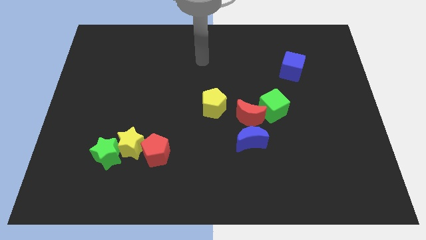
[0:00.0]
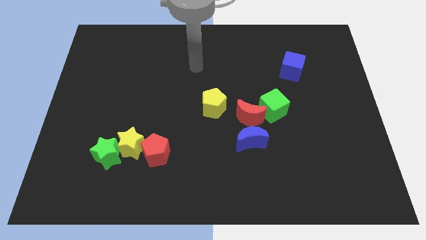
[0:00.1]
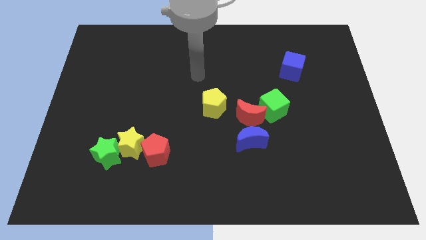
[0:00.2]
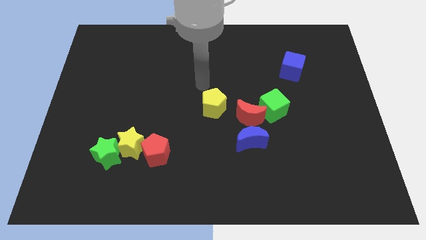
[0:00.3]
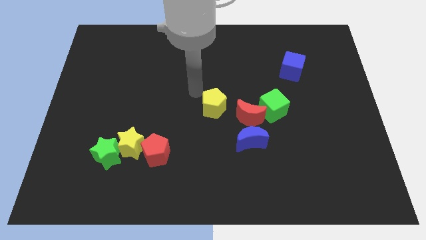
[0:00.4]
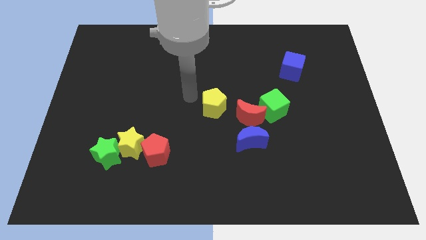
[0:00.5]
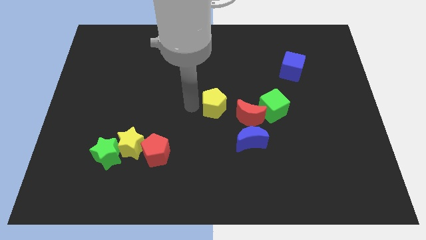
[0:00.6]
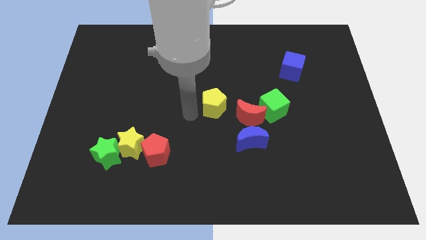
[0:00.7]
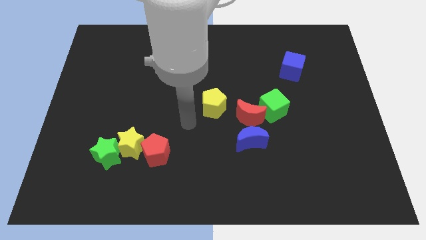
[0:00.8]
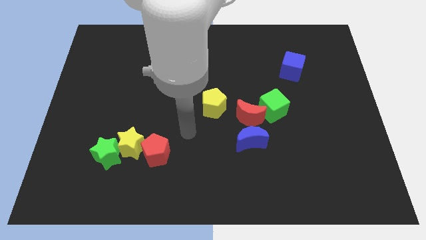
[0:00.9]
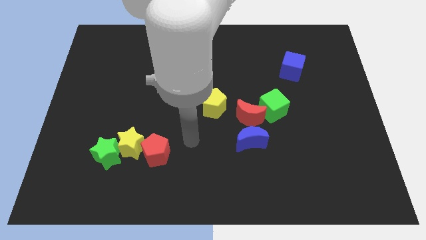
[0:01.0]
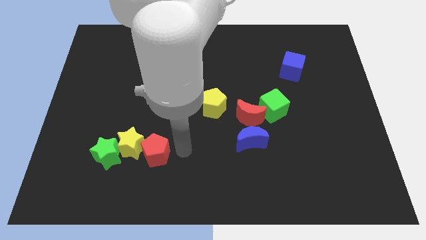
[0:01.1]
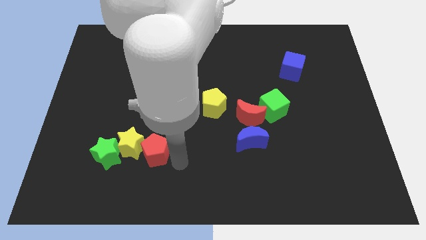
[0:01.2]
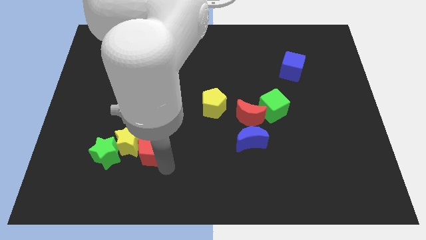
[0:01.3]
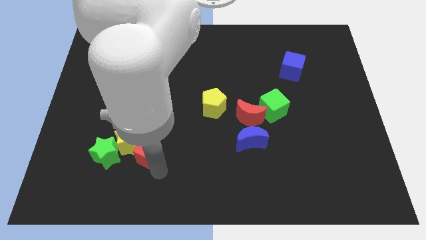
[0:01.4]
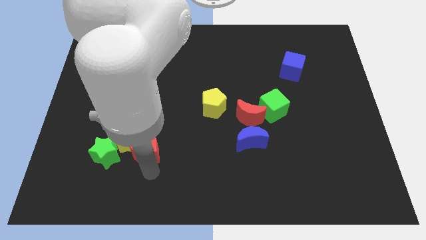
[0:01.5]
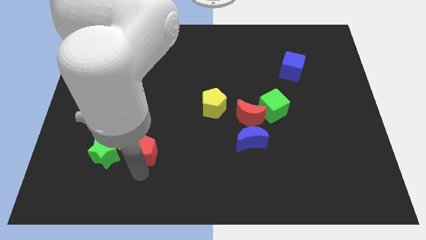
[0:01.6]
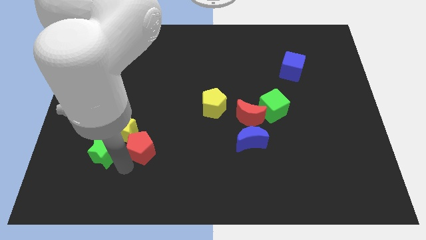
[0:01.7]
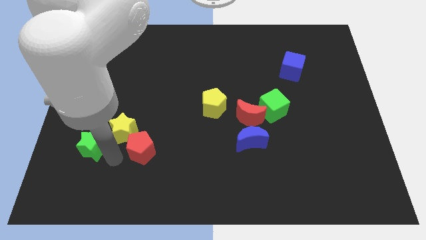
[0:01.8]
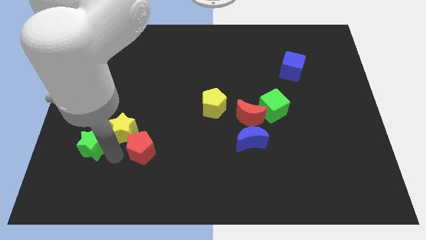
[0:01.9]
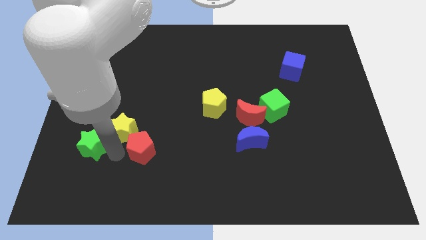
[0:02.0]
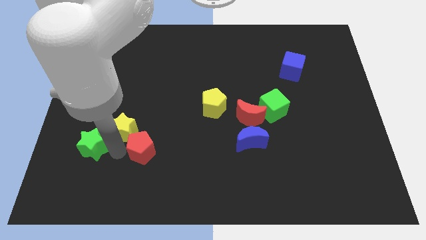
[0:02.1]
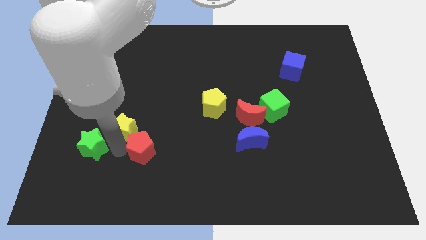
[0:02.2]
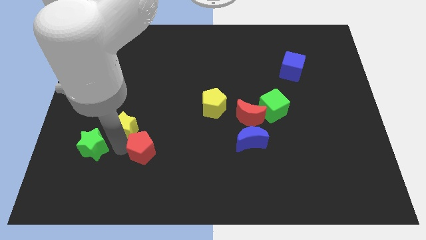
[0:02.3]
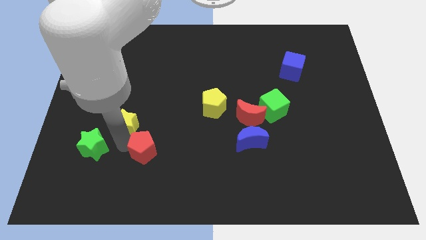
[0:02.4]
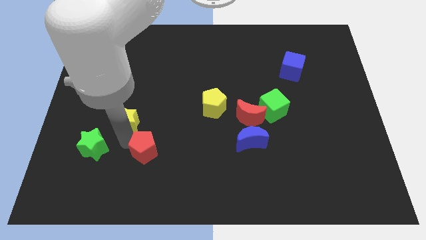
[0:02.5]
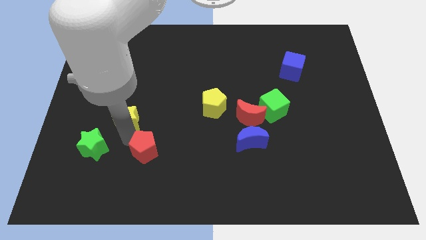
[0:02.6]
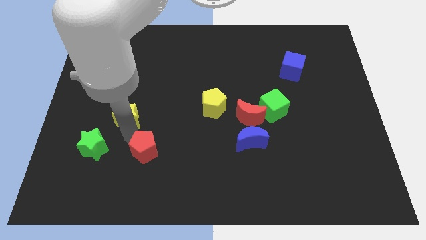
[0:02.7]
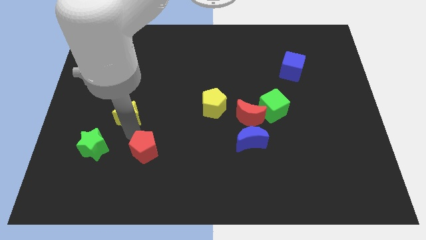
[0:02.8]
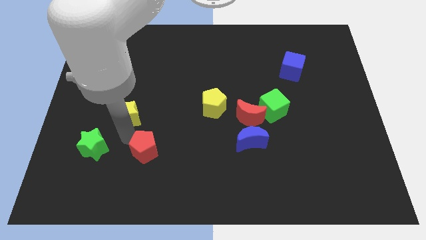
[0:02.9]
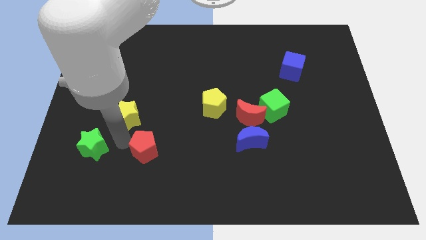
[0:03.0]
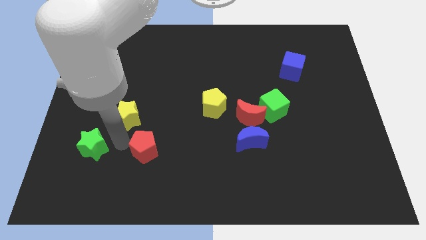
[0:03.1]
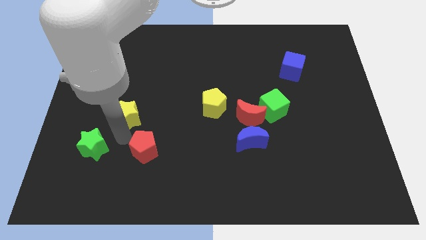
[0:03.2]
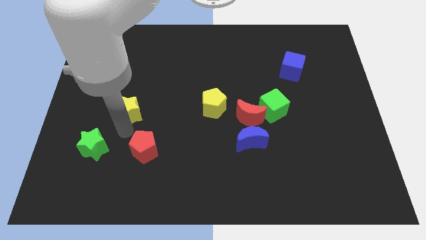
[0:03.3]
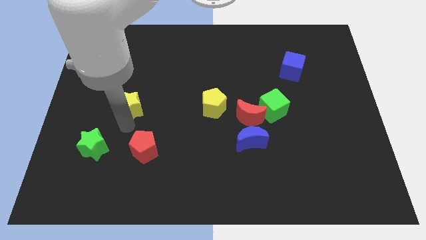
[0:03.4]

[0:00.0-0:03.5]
pull the yellow star apart from the green star and red pentagon

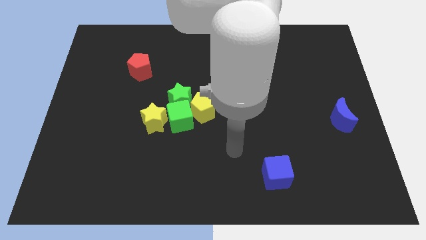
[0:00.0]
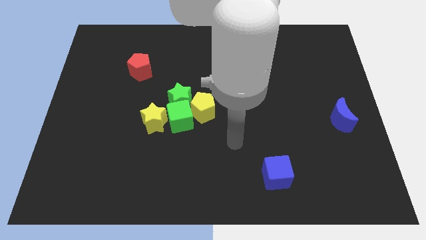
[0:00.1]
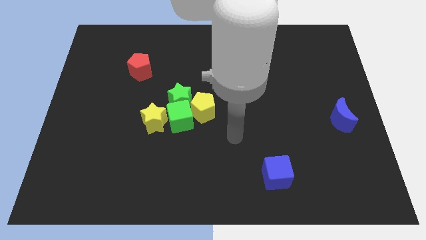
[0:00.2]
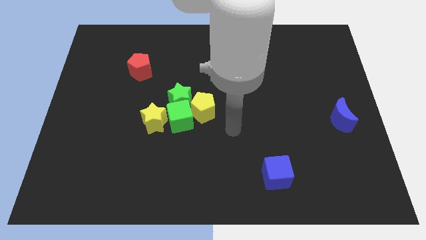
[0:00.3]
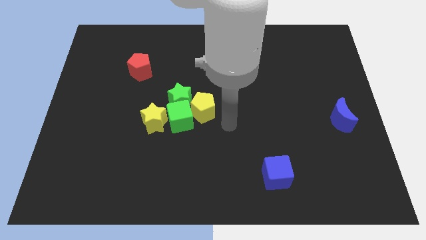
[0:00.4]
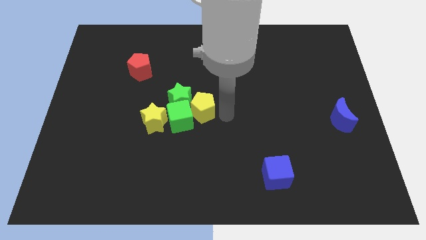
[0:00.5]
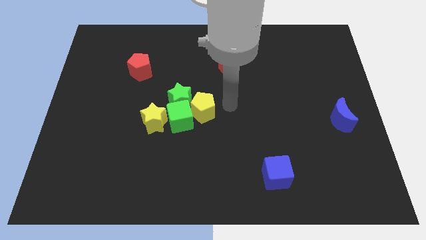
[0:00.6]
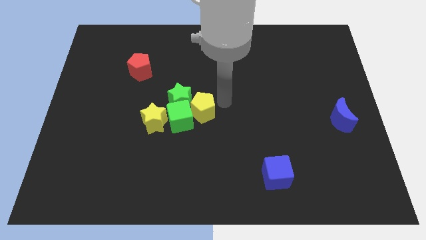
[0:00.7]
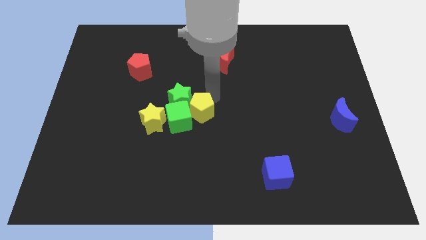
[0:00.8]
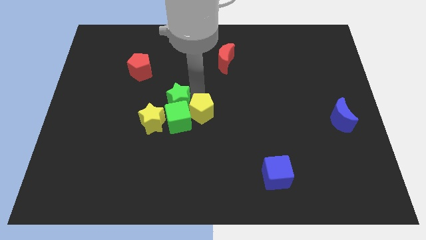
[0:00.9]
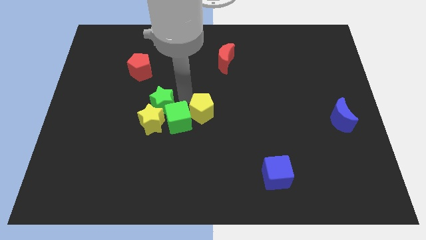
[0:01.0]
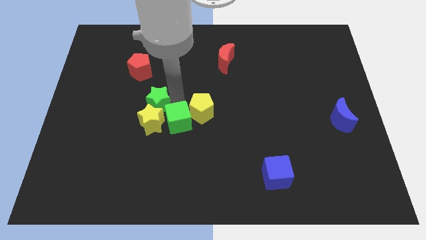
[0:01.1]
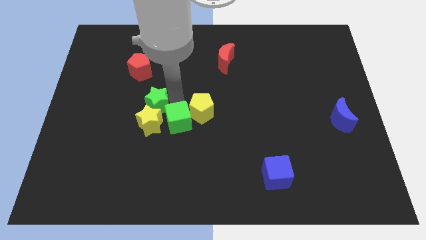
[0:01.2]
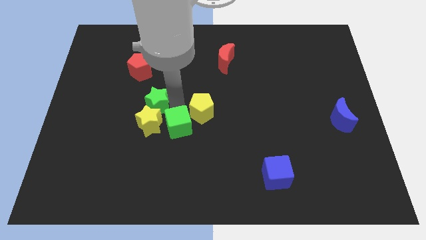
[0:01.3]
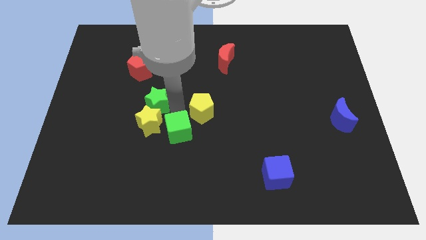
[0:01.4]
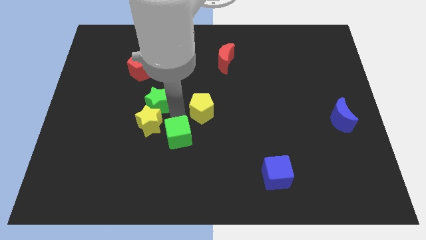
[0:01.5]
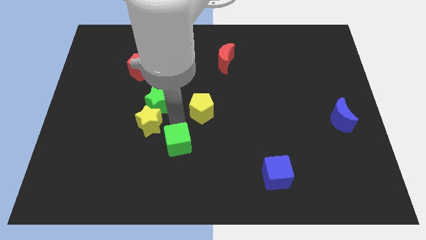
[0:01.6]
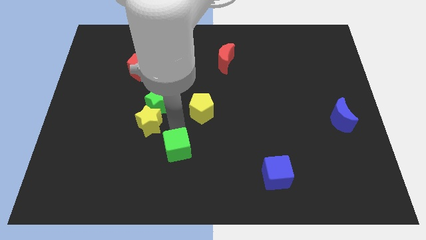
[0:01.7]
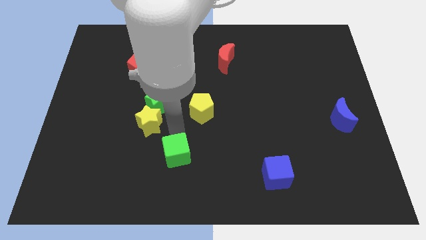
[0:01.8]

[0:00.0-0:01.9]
pull the green cube apart from the green star, yellow star, and yellow pentagon

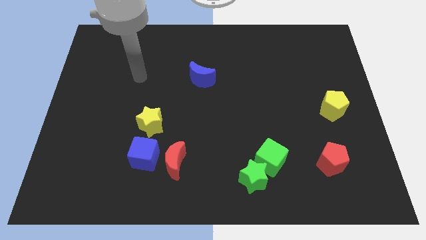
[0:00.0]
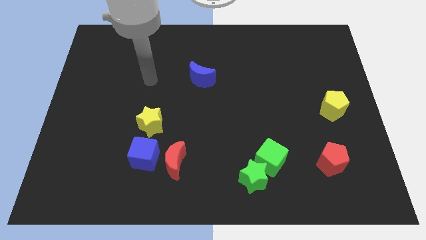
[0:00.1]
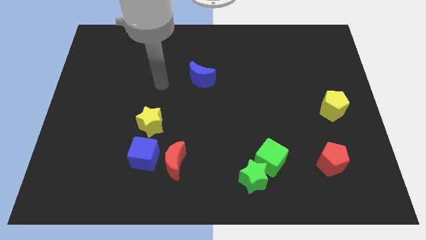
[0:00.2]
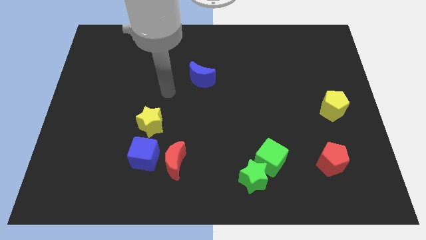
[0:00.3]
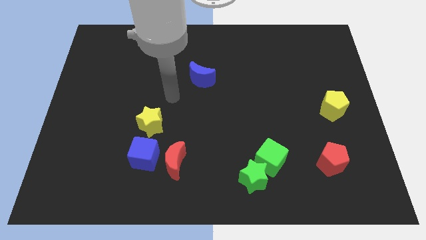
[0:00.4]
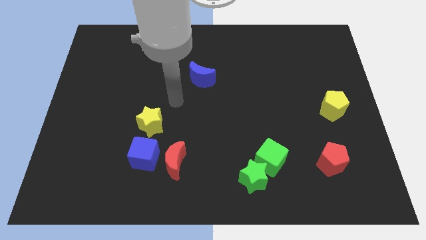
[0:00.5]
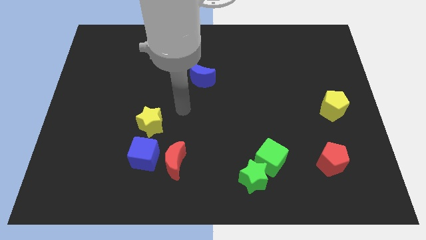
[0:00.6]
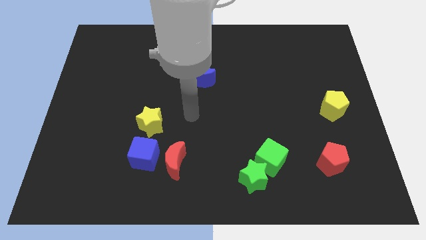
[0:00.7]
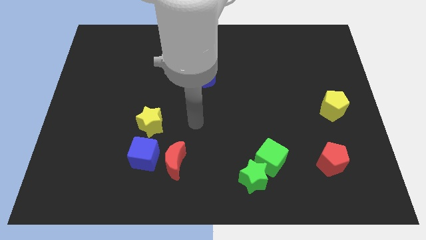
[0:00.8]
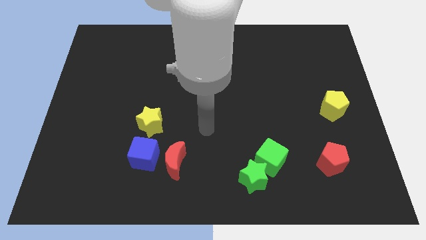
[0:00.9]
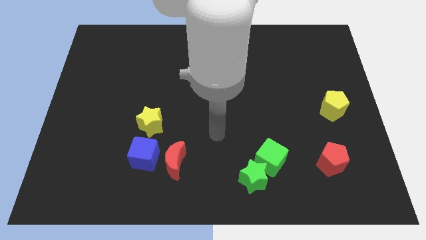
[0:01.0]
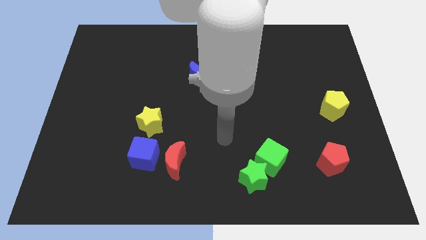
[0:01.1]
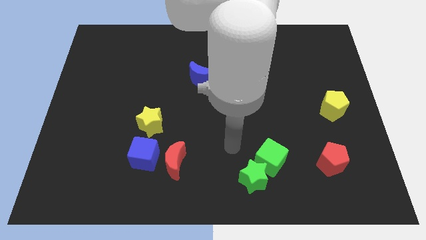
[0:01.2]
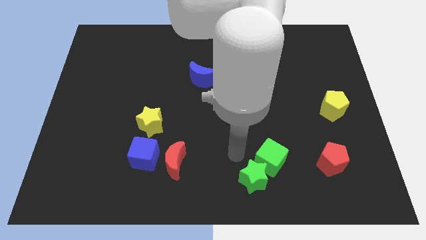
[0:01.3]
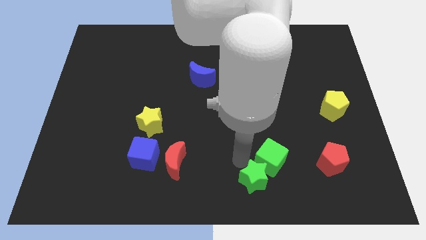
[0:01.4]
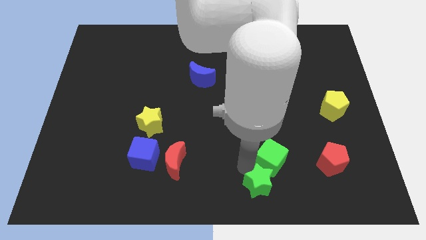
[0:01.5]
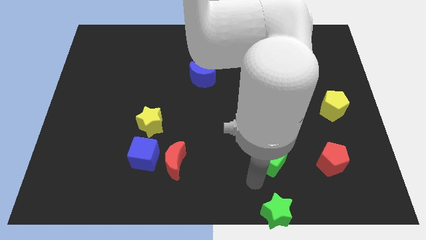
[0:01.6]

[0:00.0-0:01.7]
move the green cube away from the green star

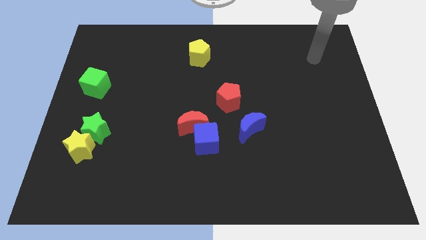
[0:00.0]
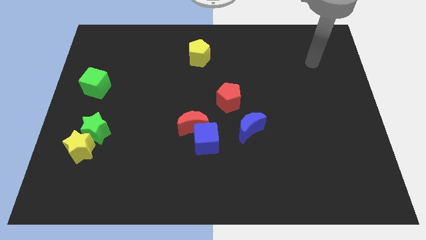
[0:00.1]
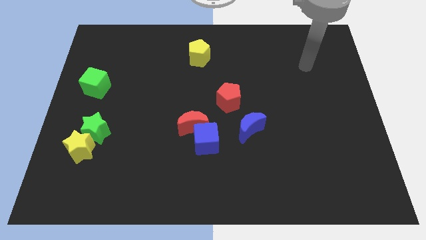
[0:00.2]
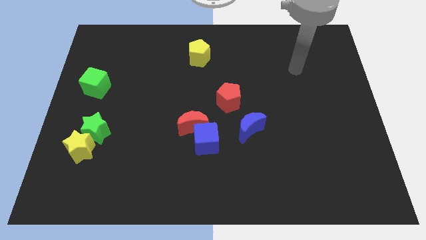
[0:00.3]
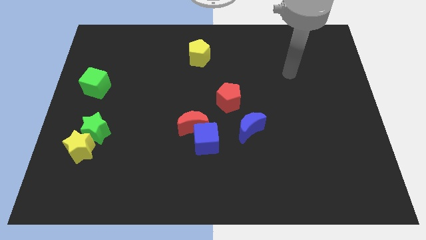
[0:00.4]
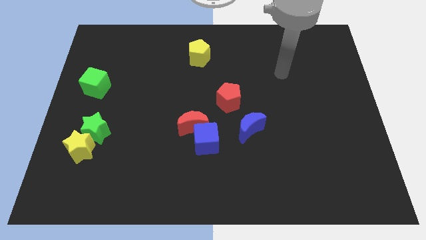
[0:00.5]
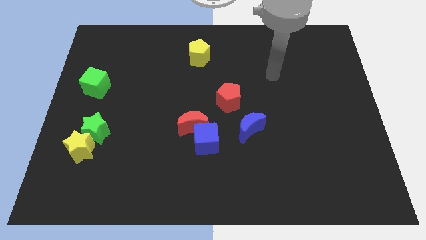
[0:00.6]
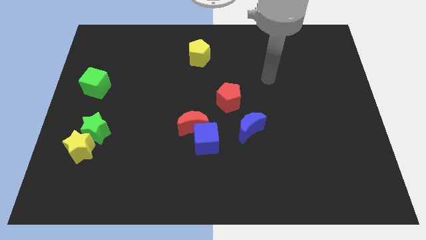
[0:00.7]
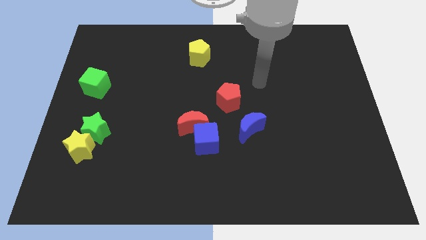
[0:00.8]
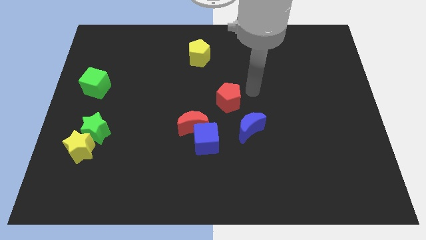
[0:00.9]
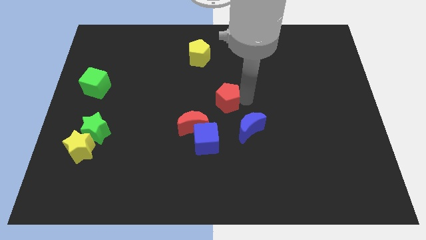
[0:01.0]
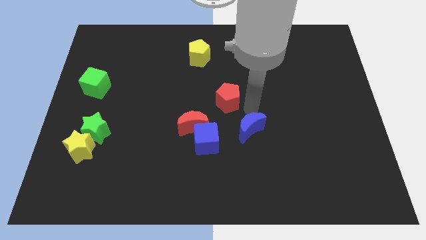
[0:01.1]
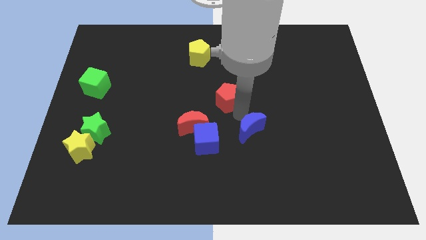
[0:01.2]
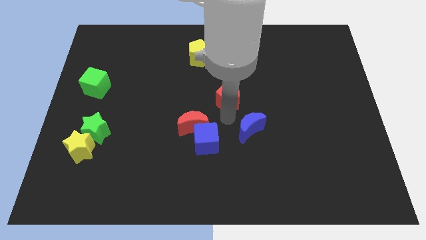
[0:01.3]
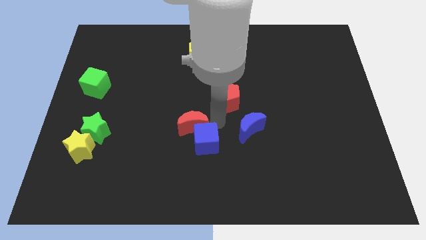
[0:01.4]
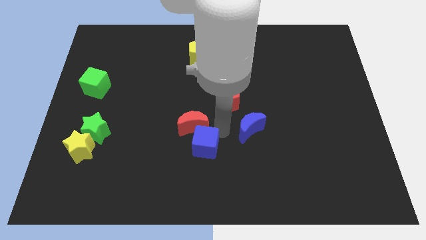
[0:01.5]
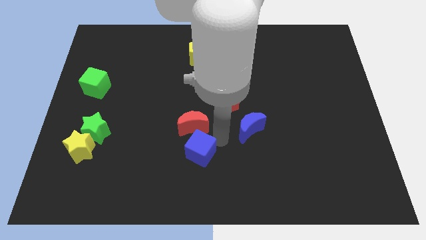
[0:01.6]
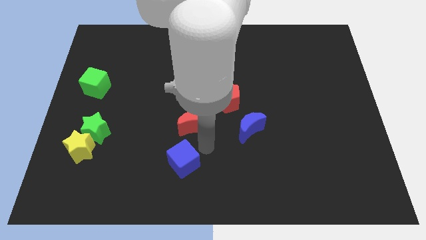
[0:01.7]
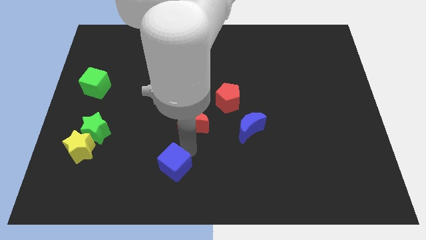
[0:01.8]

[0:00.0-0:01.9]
move the red moon away from the blue cube

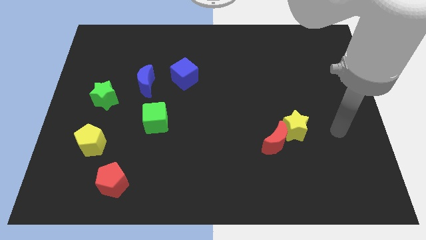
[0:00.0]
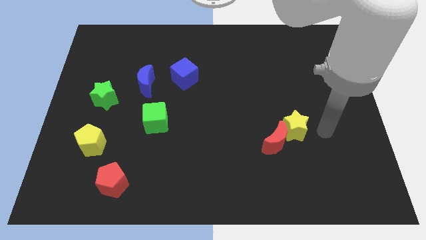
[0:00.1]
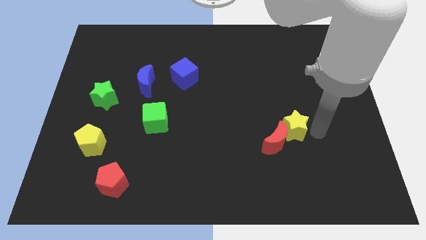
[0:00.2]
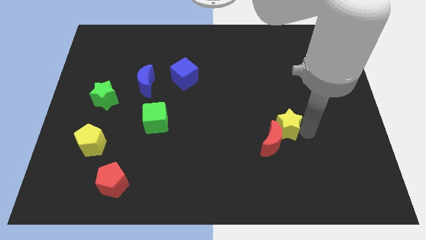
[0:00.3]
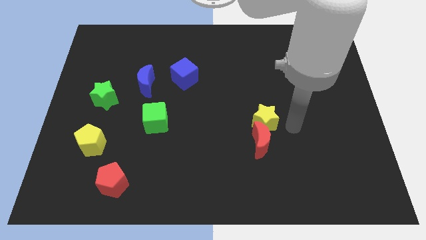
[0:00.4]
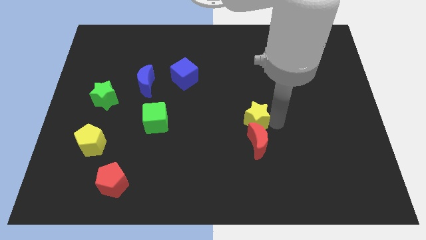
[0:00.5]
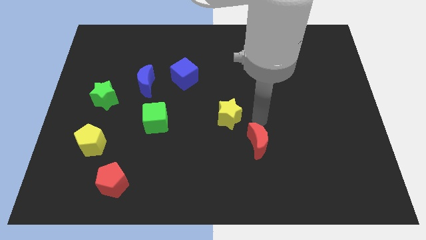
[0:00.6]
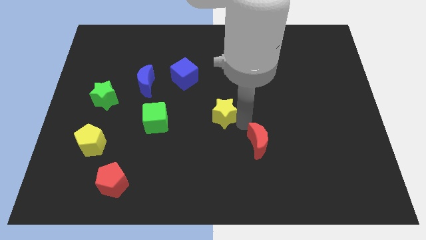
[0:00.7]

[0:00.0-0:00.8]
move the red moon away from the yellow star
